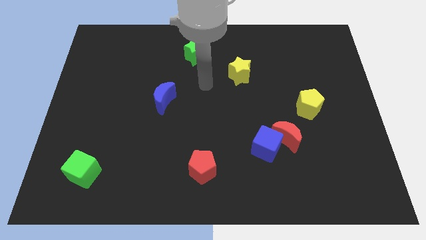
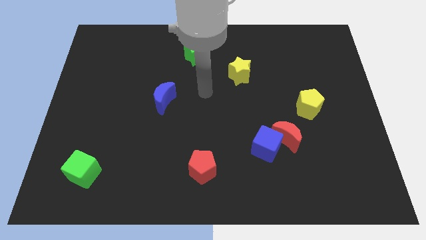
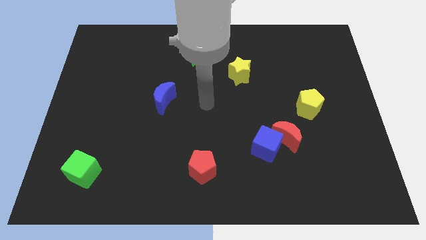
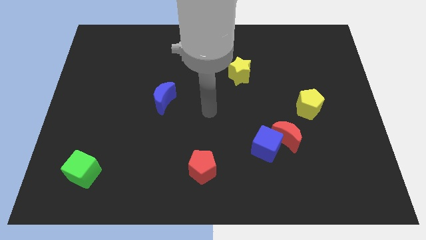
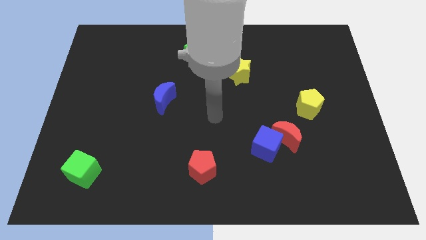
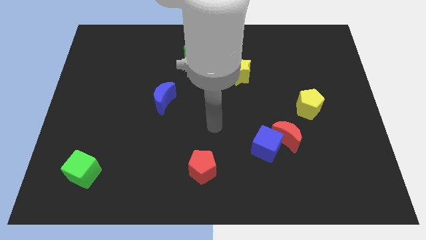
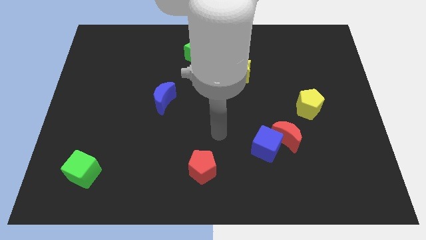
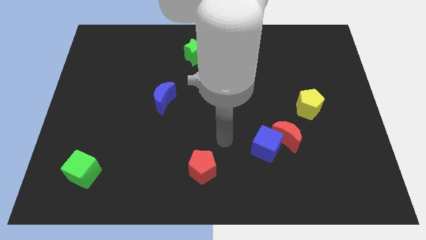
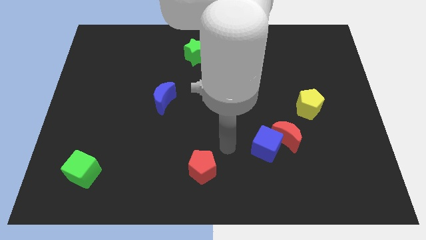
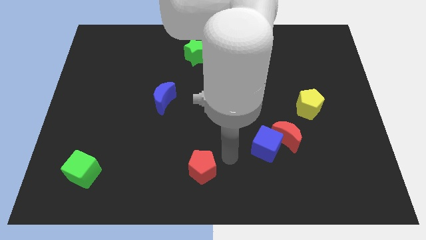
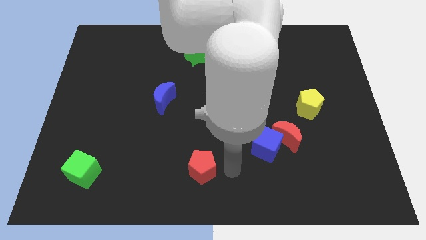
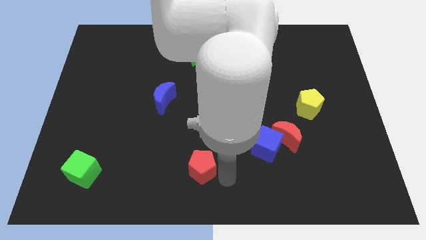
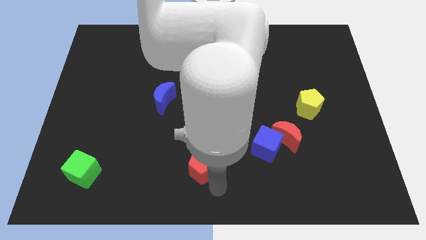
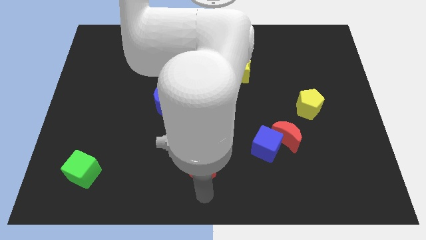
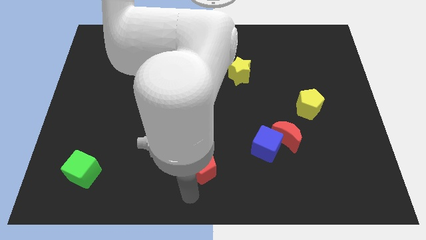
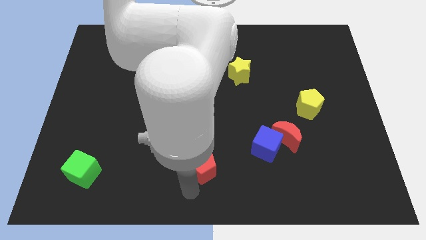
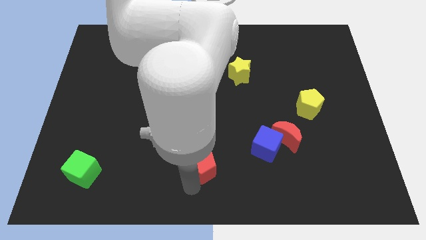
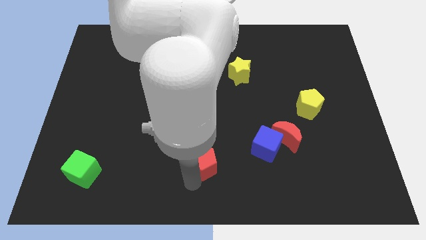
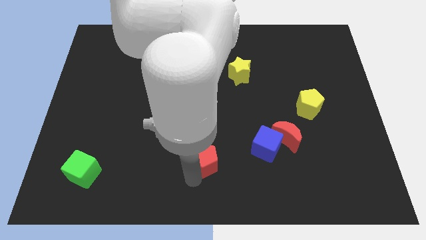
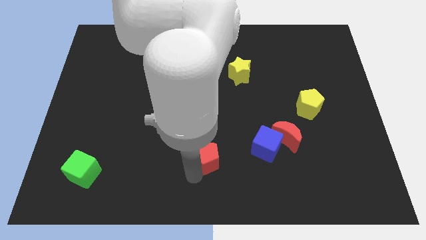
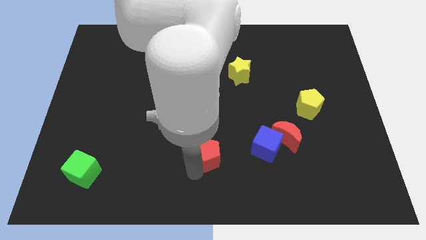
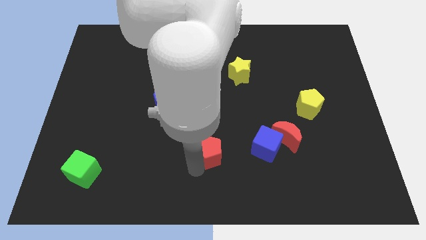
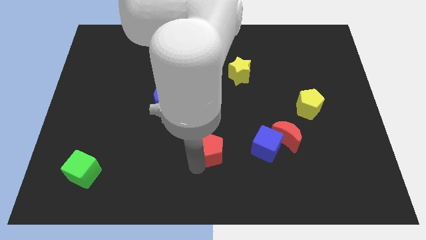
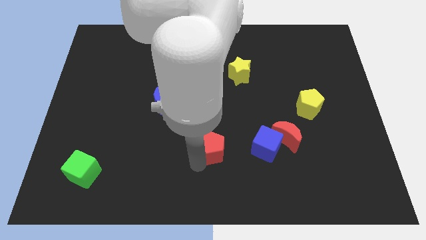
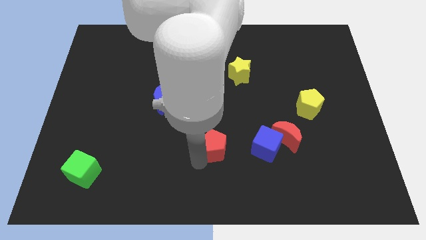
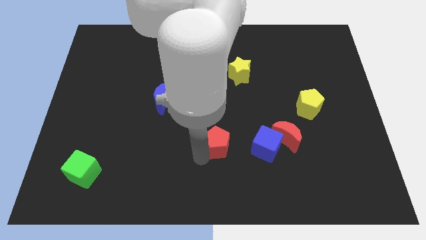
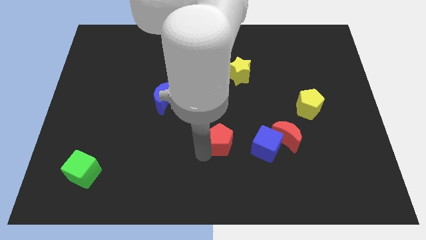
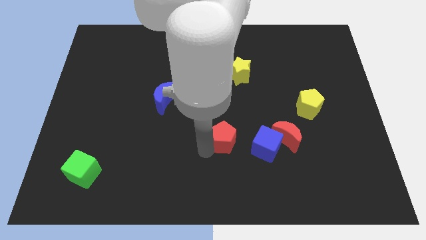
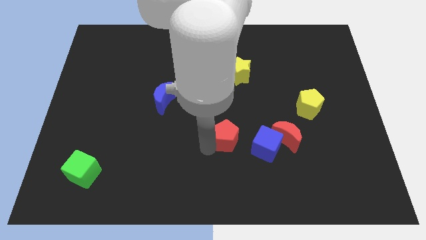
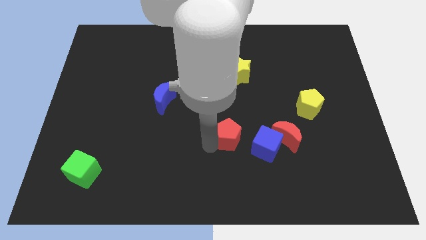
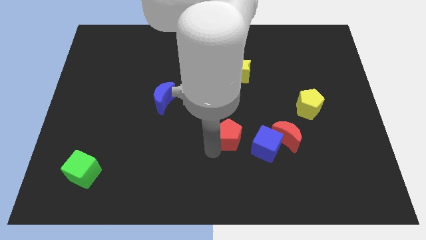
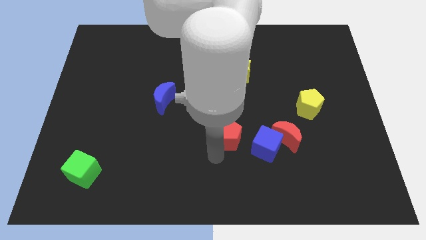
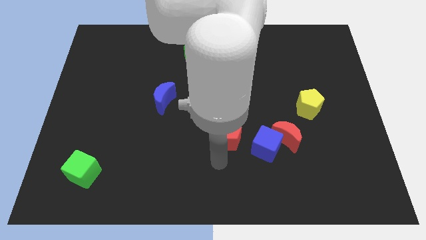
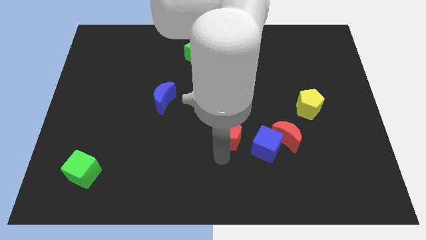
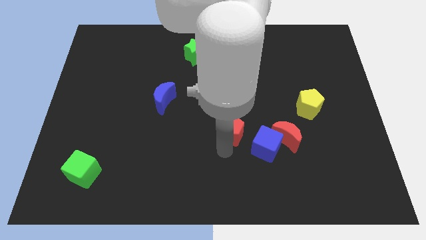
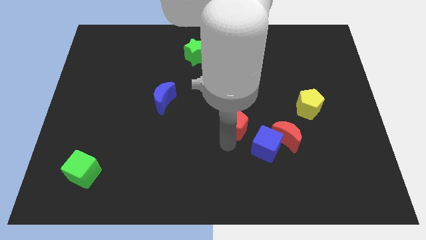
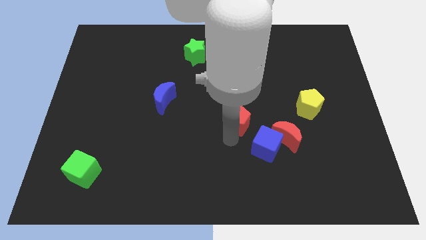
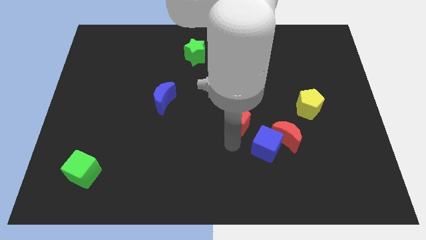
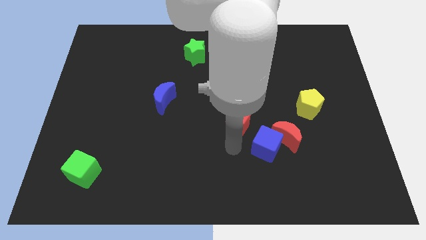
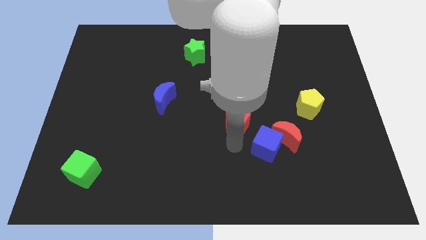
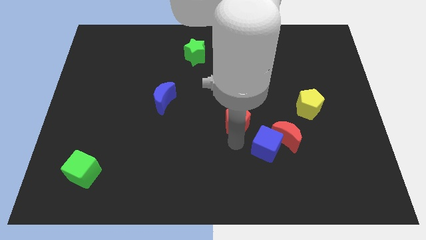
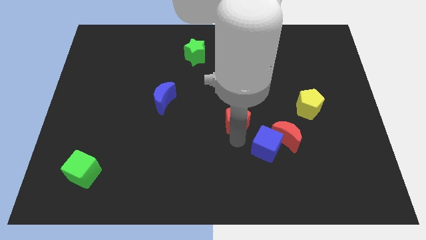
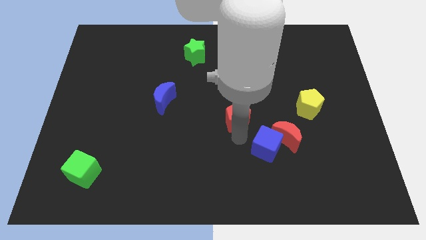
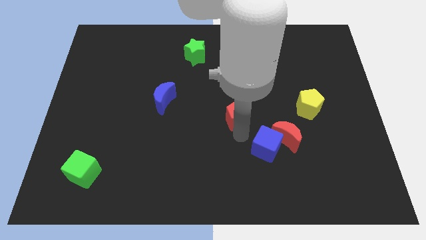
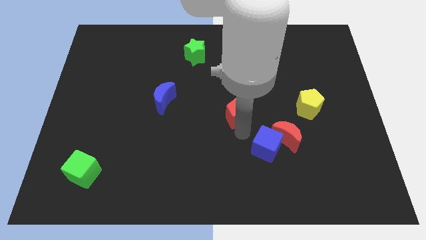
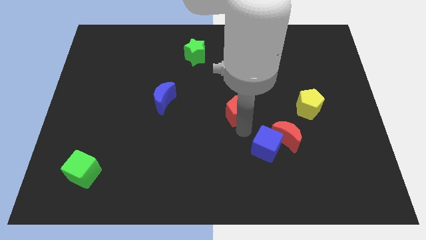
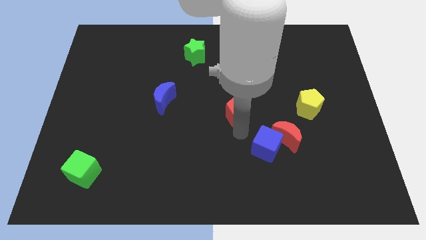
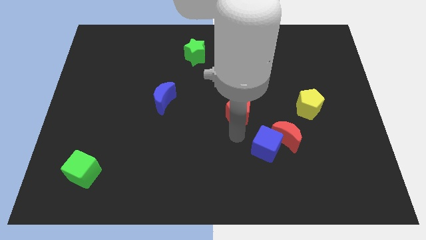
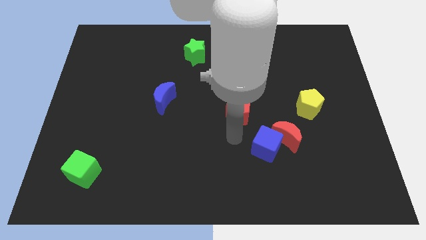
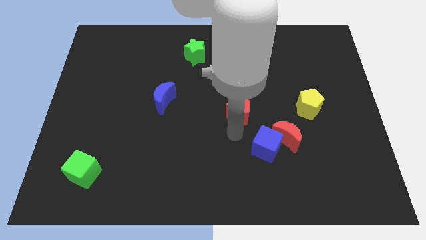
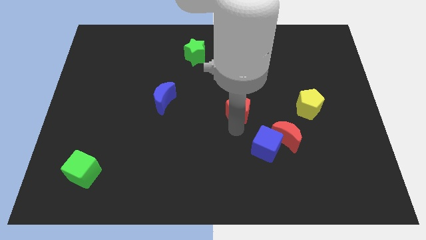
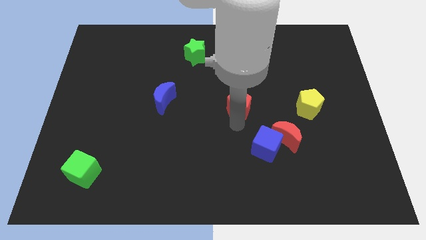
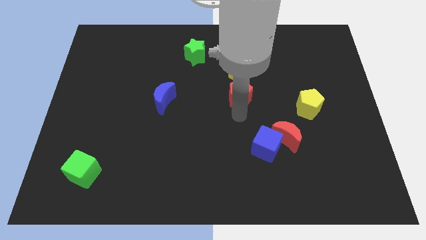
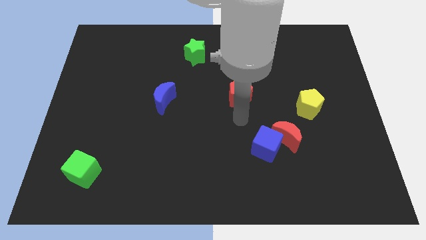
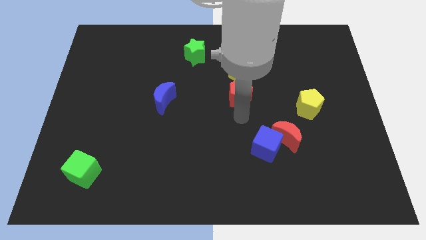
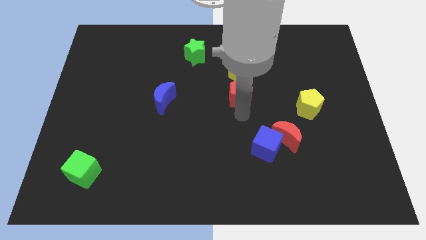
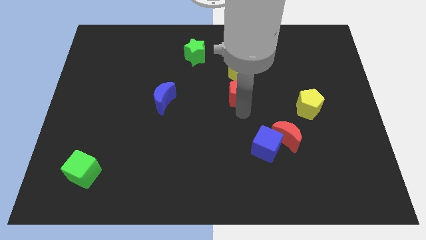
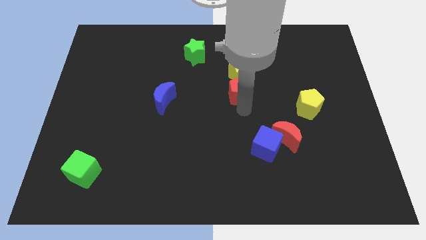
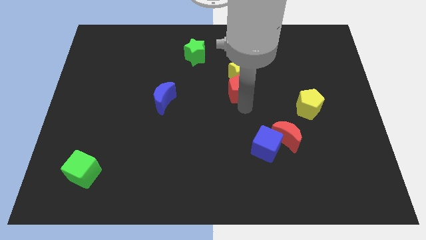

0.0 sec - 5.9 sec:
slide the red pentagon towards the yellow star

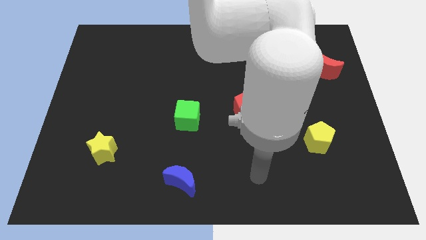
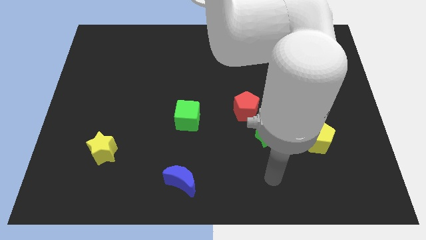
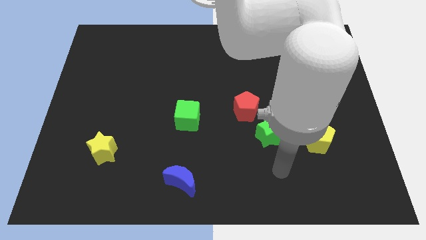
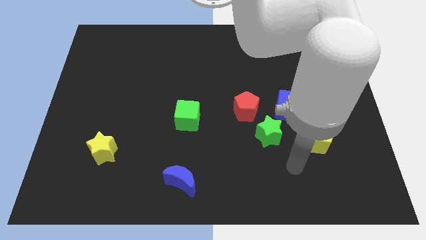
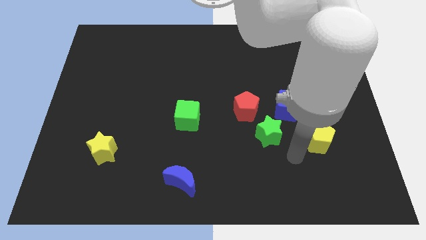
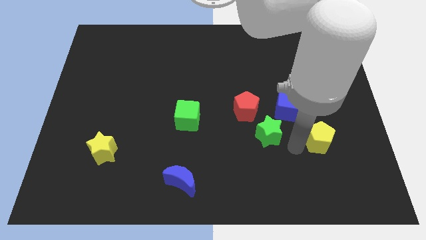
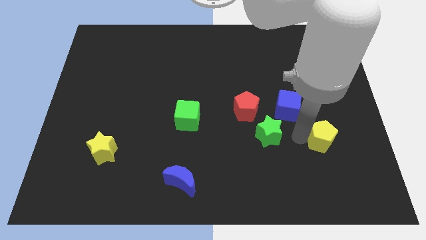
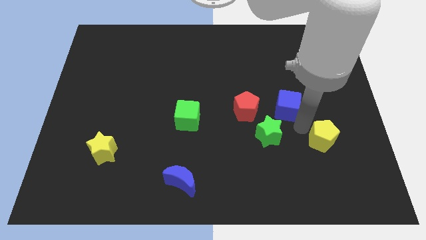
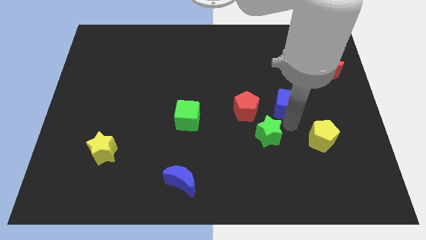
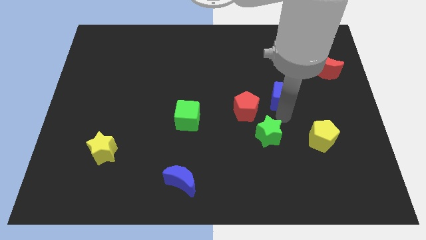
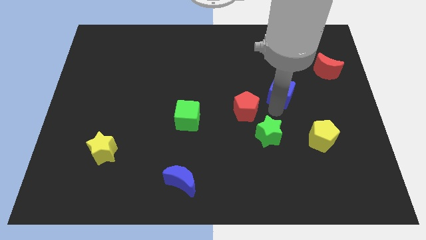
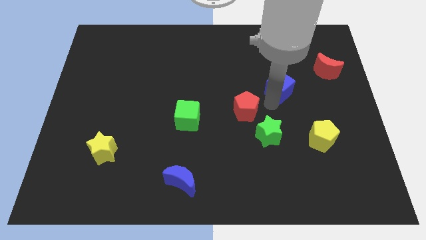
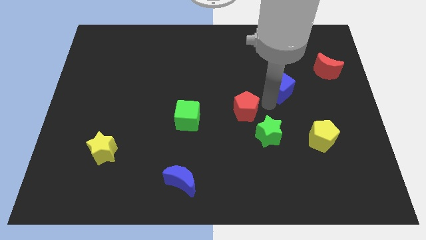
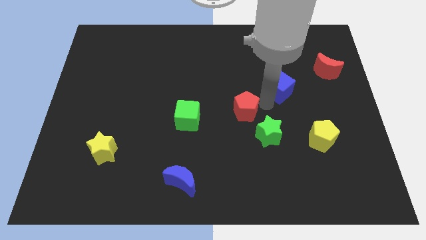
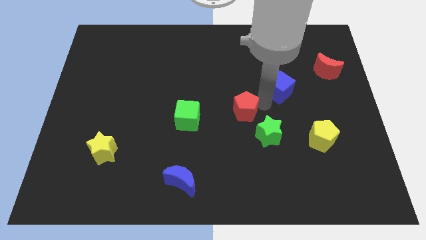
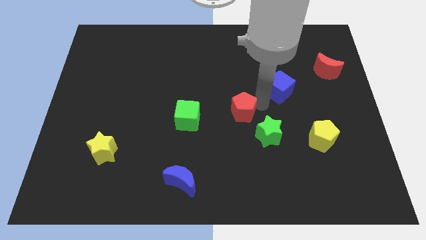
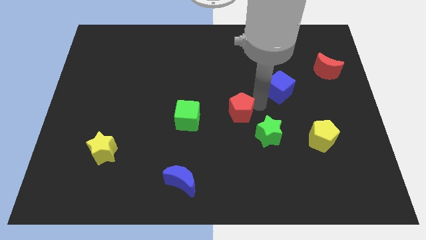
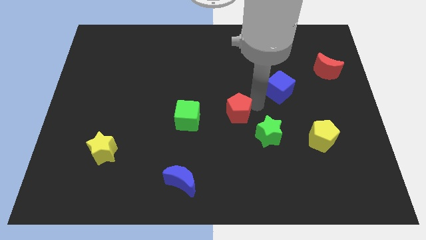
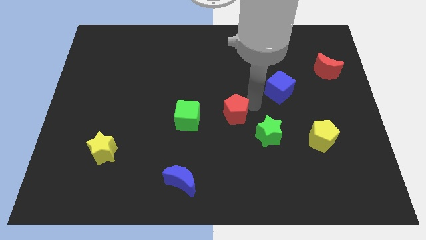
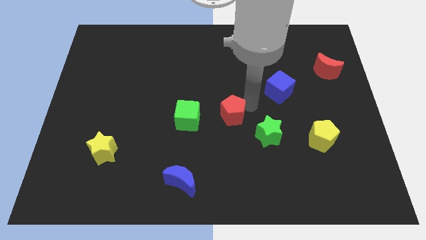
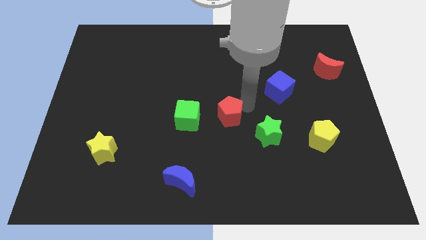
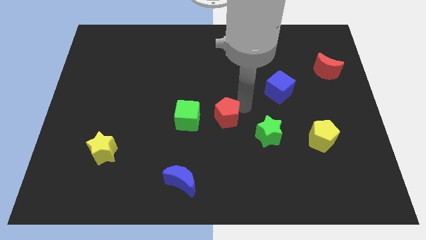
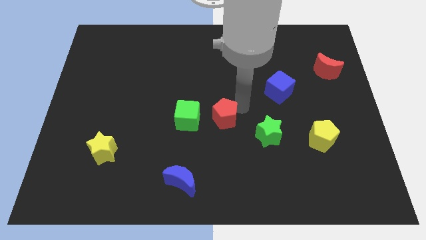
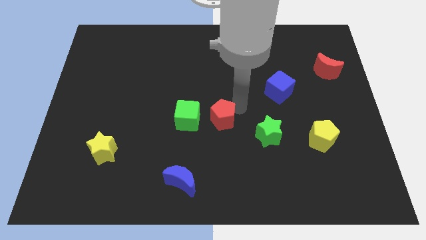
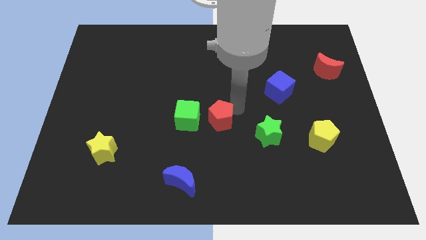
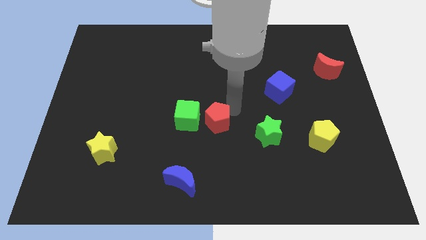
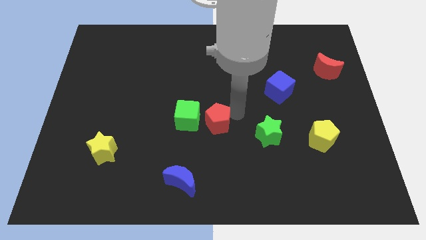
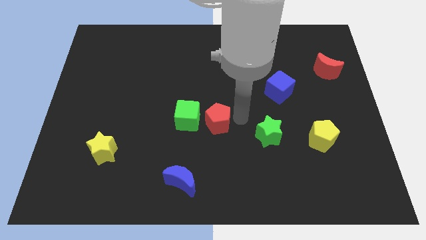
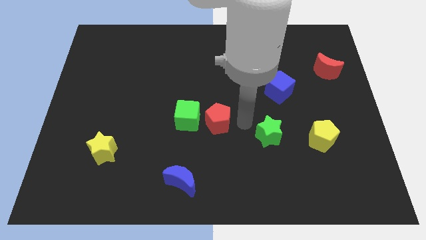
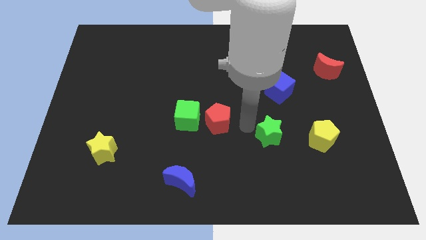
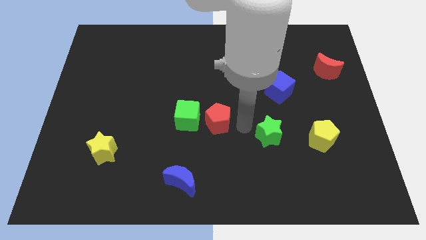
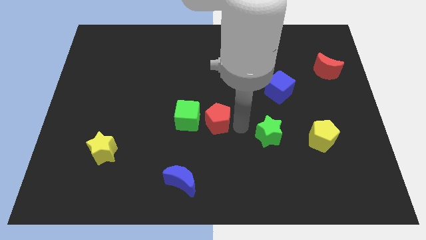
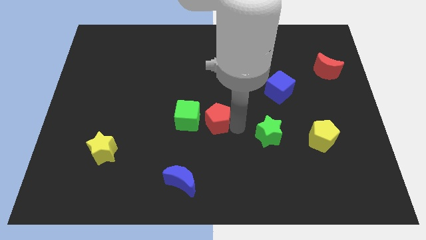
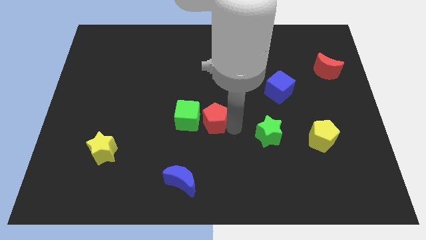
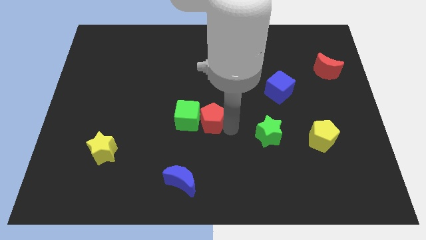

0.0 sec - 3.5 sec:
move the red pentagon towards the green cube
